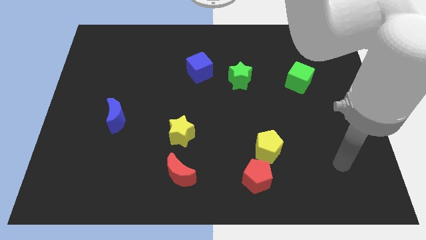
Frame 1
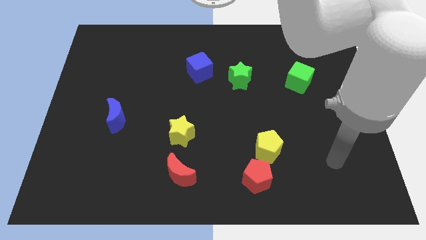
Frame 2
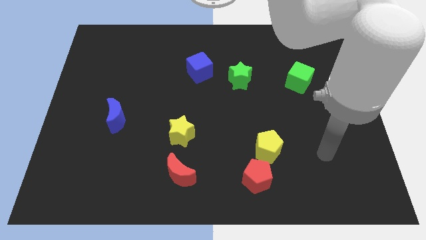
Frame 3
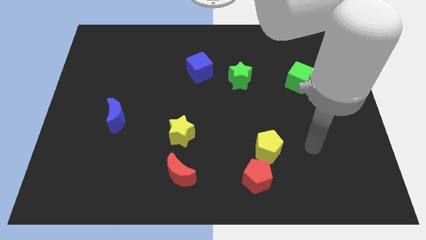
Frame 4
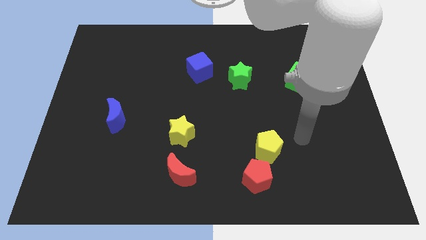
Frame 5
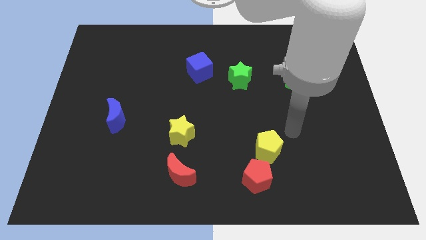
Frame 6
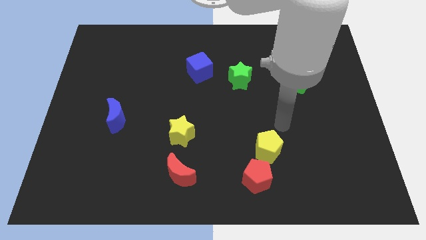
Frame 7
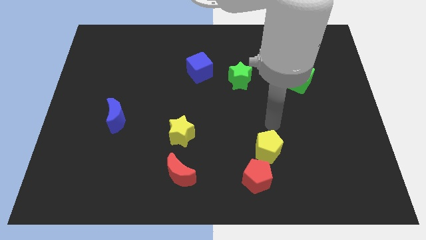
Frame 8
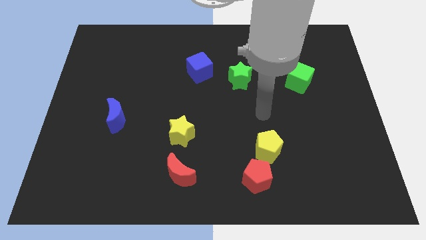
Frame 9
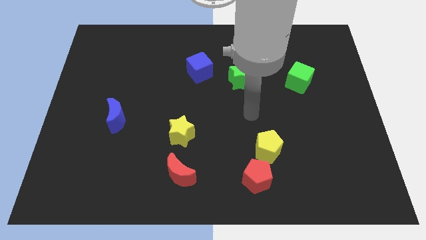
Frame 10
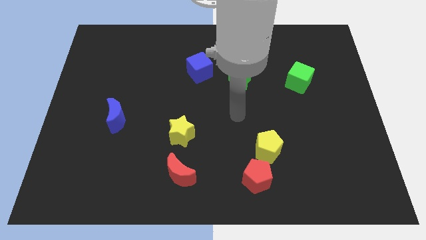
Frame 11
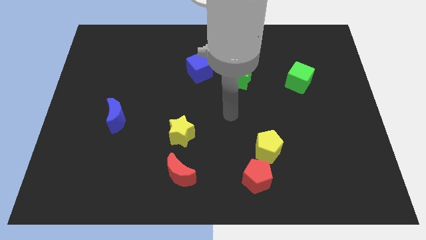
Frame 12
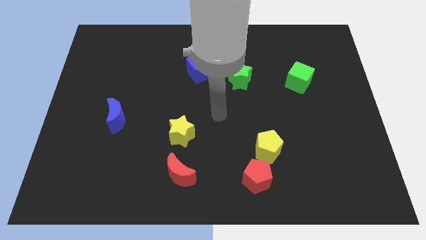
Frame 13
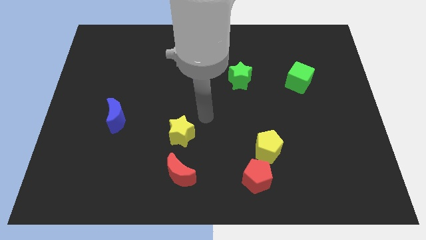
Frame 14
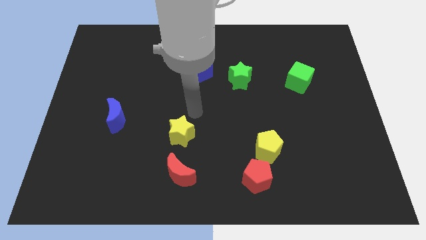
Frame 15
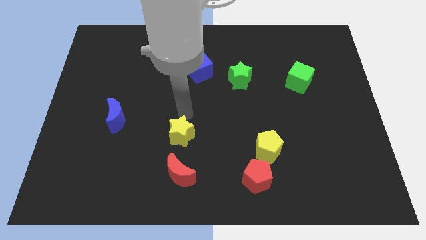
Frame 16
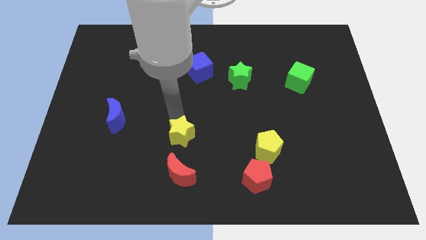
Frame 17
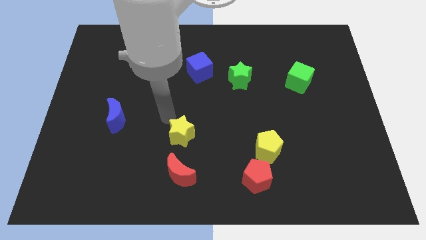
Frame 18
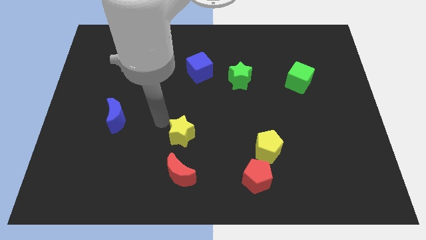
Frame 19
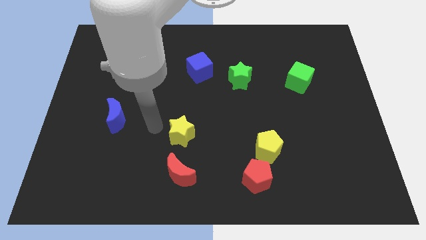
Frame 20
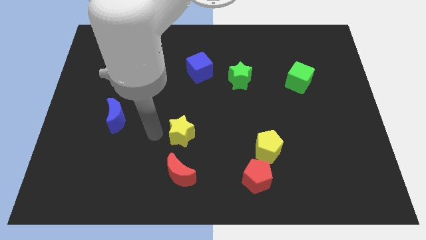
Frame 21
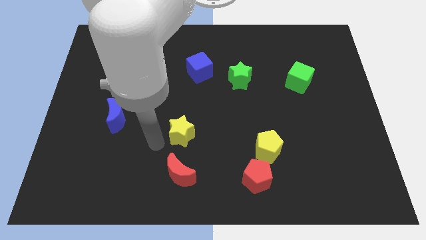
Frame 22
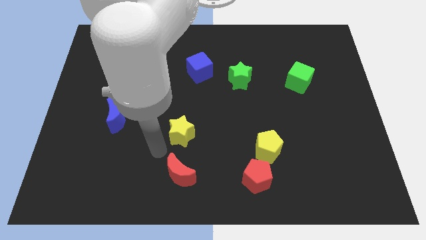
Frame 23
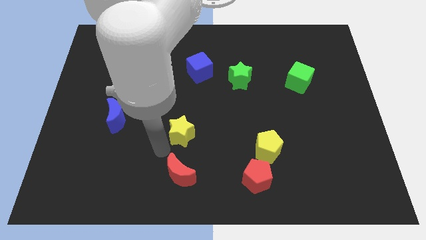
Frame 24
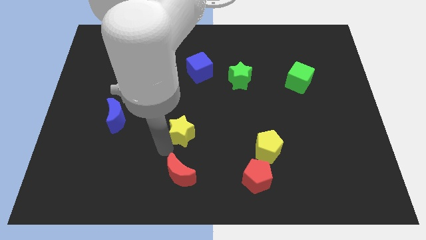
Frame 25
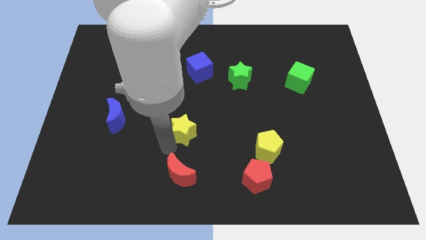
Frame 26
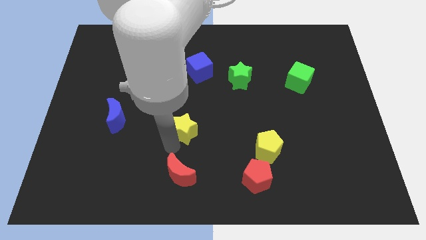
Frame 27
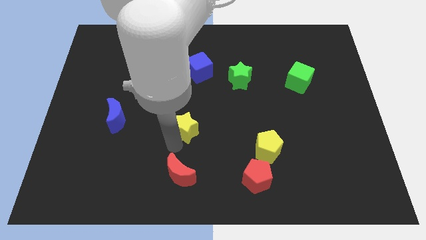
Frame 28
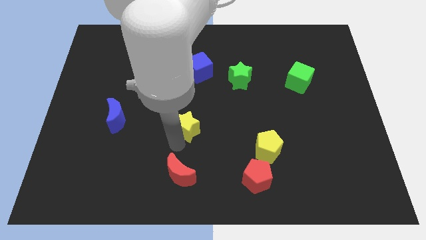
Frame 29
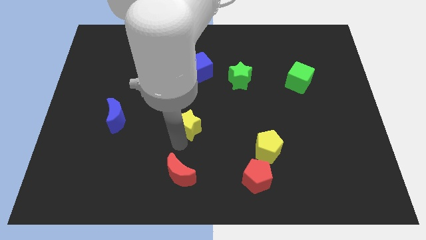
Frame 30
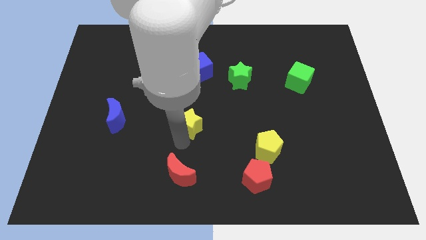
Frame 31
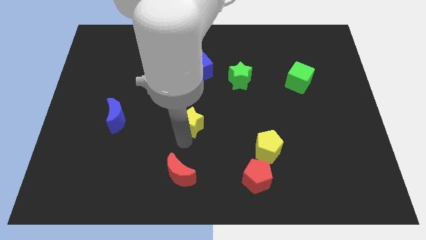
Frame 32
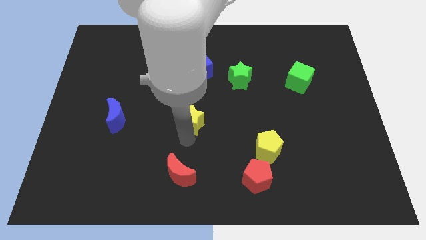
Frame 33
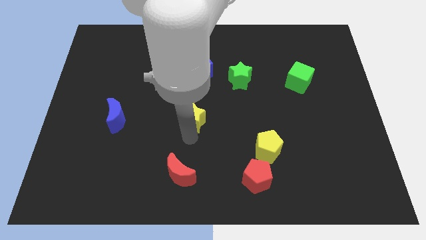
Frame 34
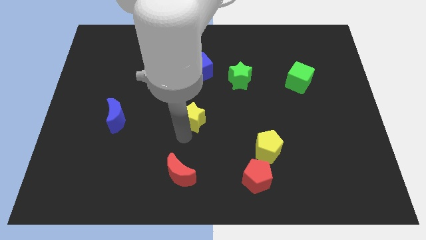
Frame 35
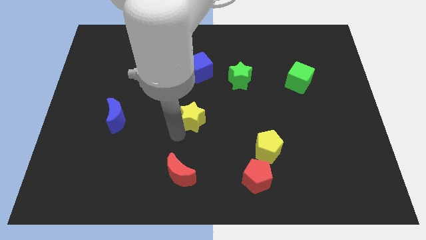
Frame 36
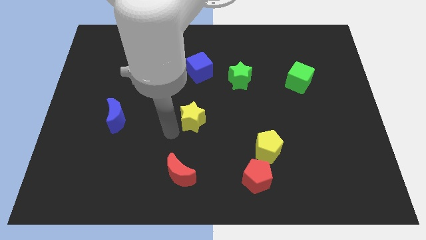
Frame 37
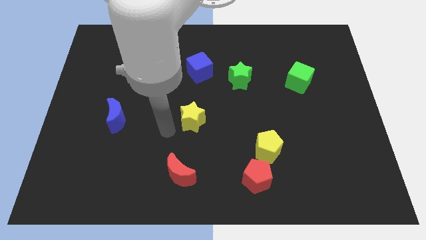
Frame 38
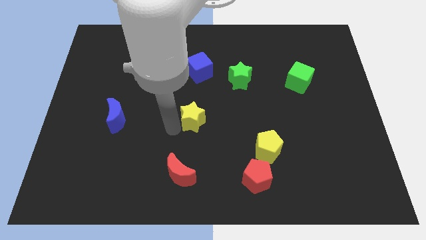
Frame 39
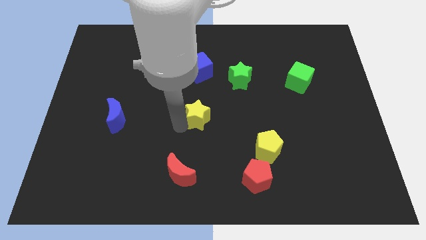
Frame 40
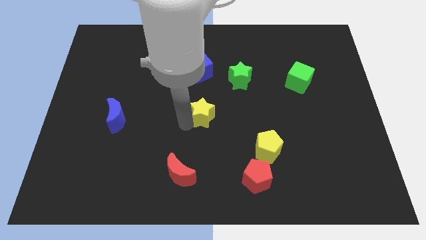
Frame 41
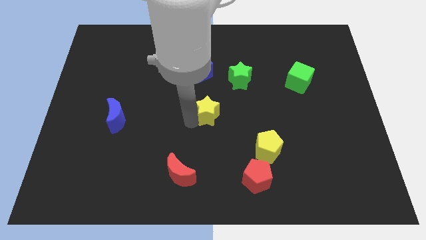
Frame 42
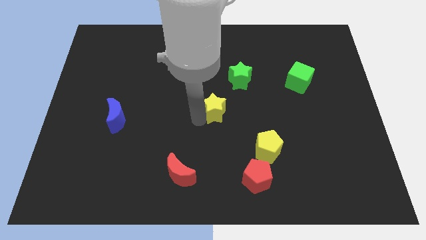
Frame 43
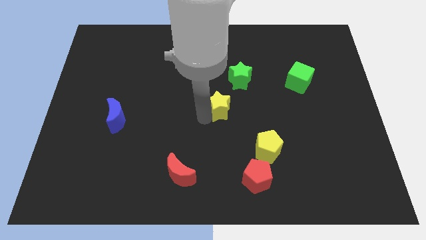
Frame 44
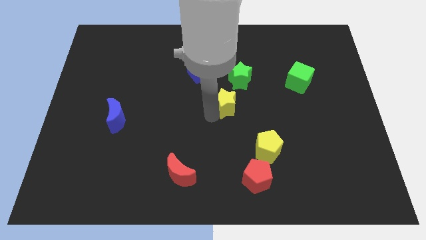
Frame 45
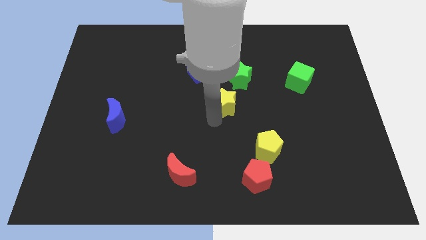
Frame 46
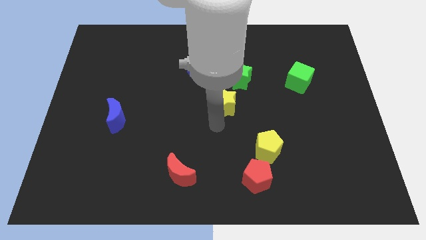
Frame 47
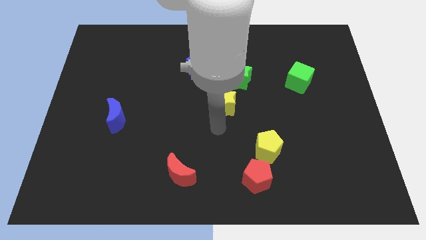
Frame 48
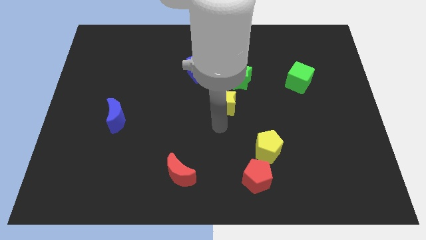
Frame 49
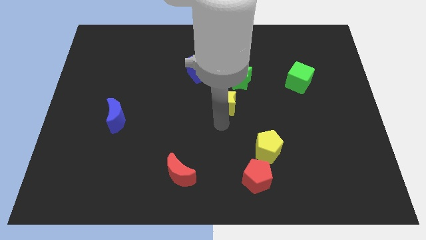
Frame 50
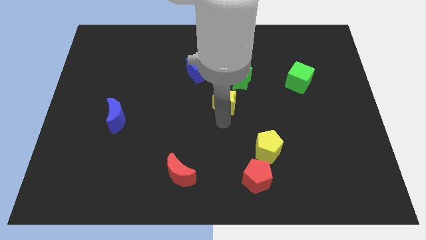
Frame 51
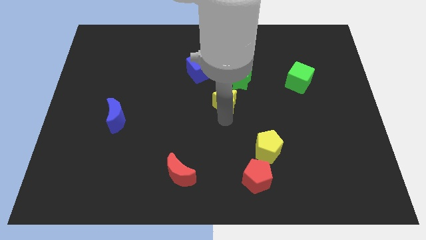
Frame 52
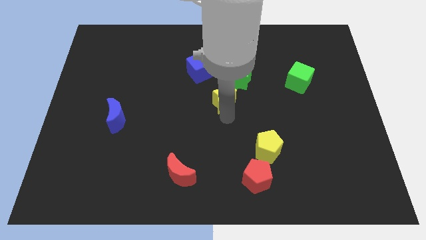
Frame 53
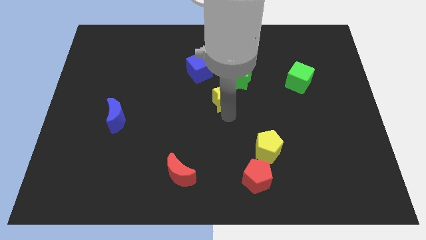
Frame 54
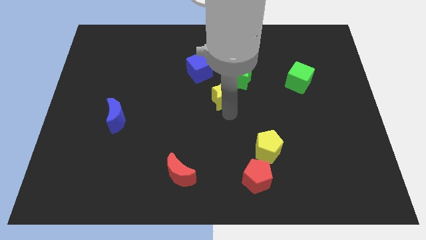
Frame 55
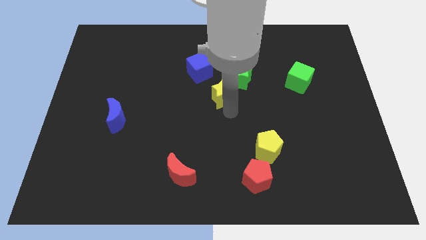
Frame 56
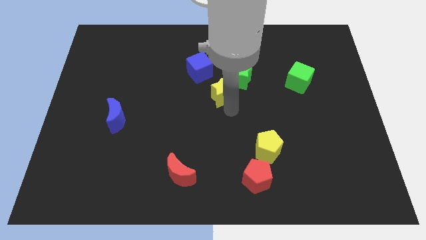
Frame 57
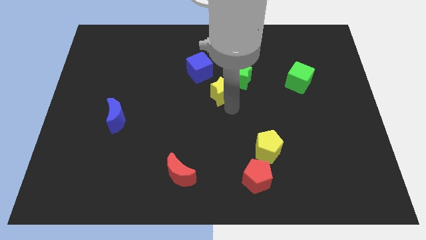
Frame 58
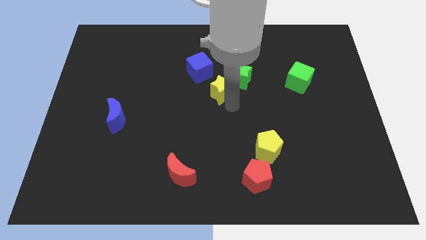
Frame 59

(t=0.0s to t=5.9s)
move the yellow star close to the green star
